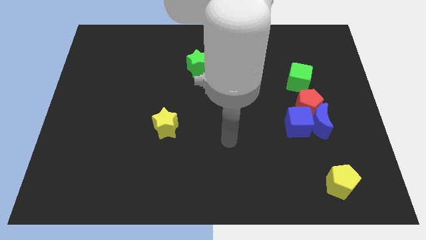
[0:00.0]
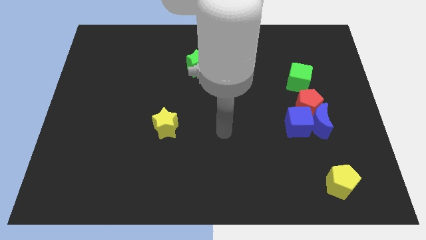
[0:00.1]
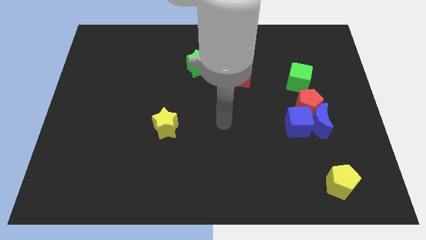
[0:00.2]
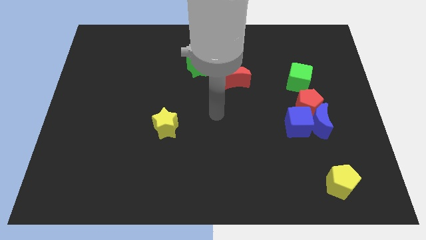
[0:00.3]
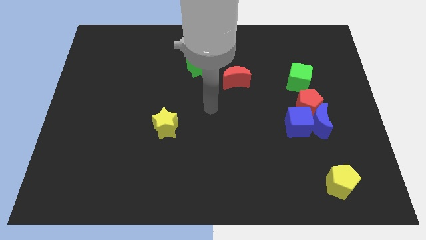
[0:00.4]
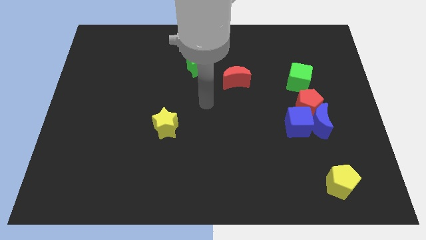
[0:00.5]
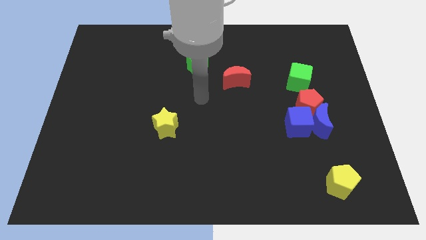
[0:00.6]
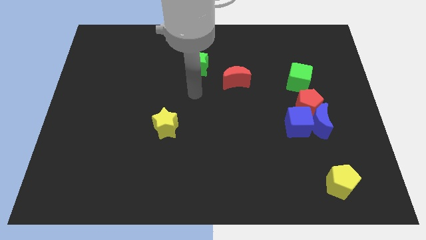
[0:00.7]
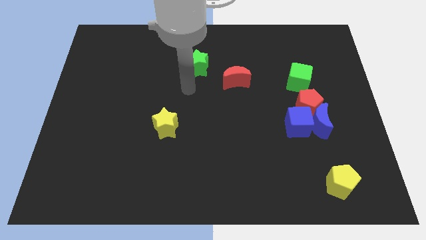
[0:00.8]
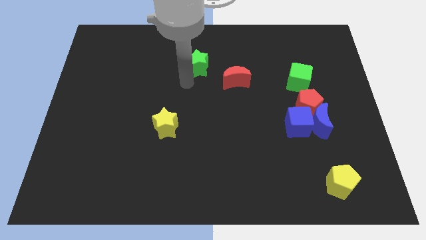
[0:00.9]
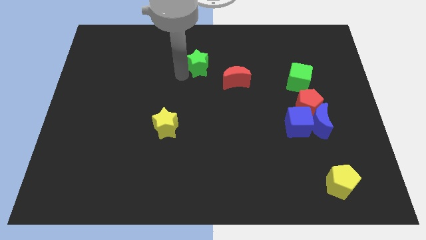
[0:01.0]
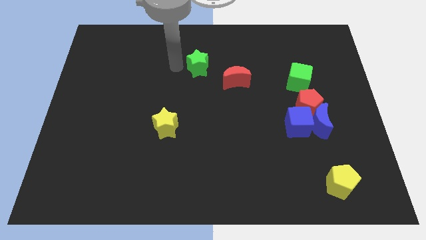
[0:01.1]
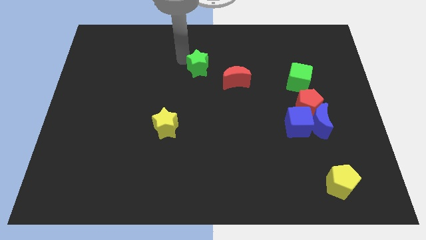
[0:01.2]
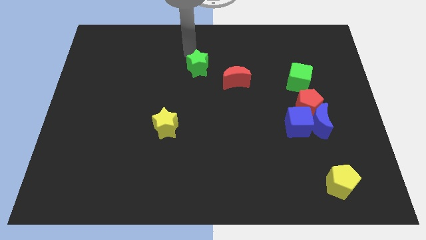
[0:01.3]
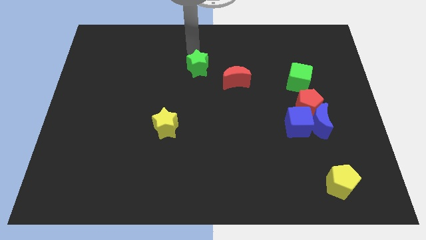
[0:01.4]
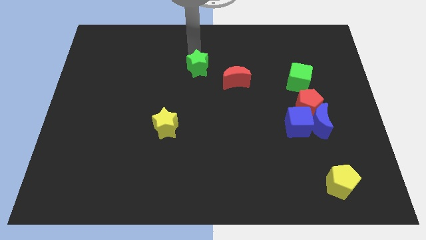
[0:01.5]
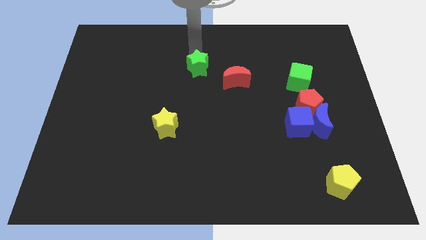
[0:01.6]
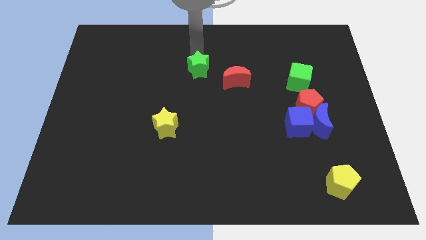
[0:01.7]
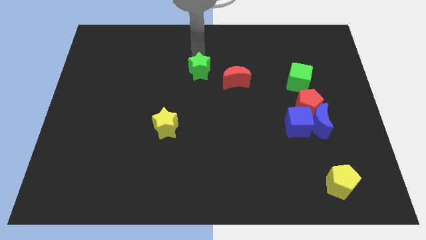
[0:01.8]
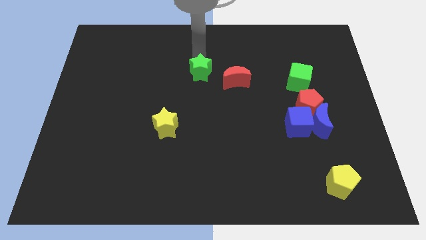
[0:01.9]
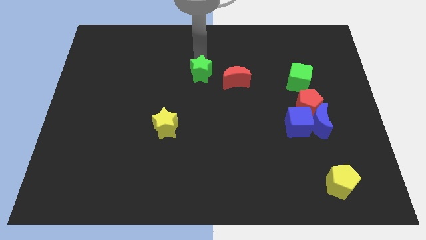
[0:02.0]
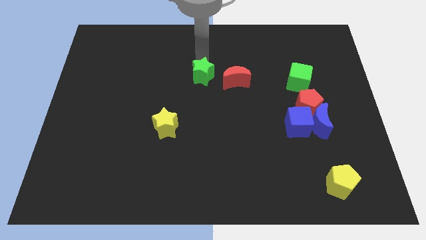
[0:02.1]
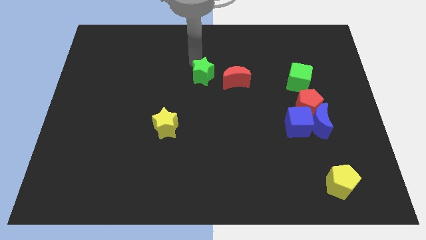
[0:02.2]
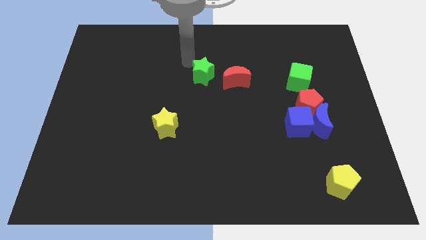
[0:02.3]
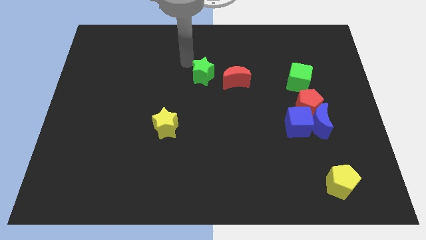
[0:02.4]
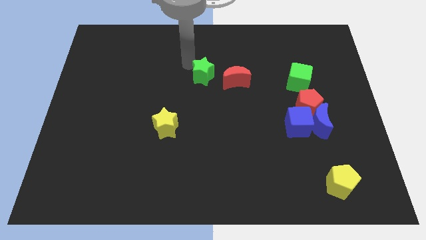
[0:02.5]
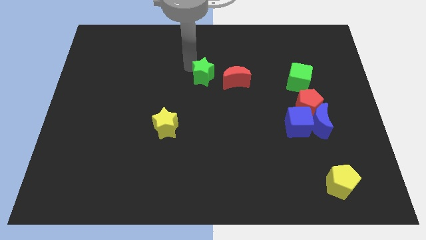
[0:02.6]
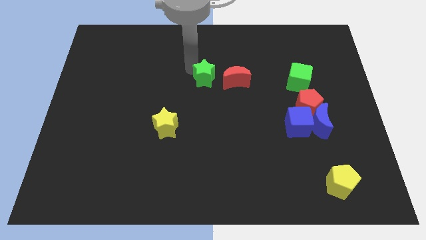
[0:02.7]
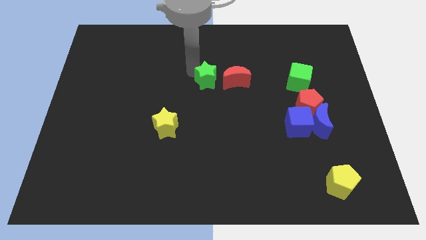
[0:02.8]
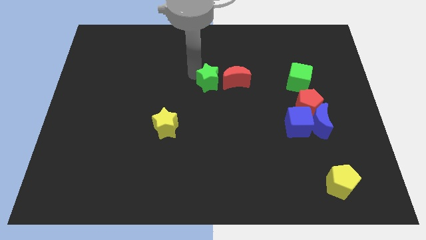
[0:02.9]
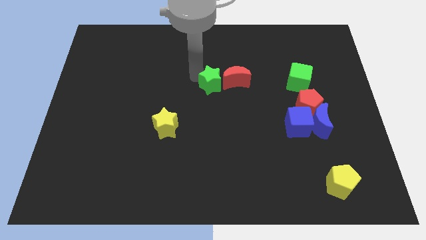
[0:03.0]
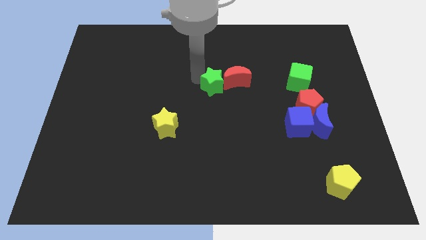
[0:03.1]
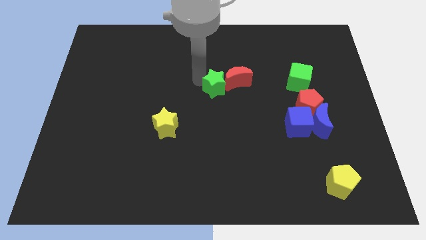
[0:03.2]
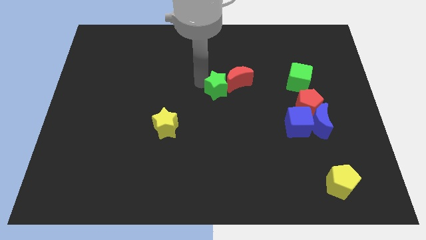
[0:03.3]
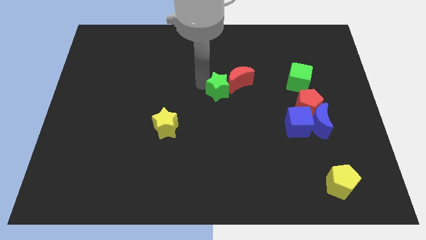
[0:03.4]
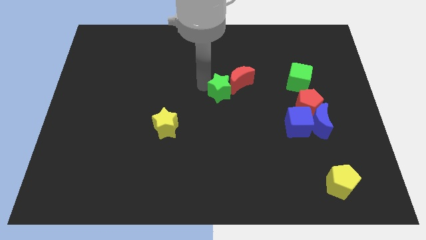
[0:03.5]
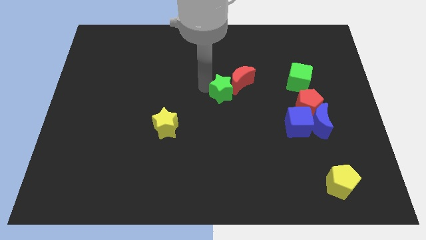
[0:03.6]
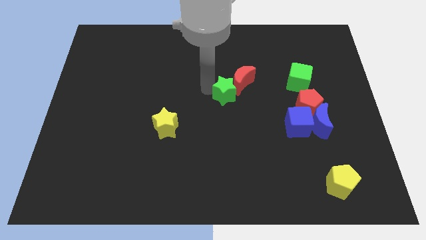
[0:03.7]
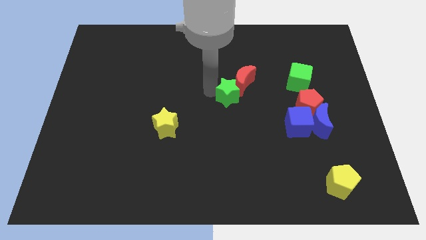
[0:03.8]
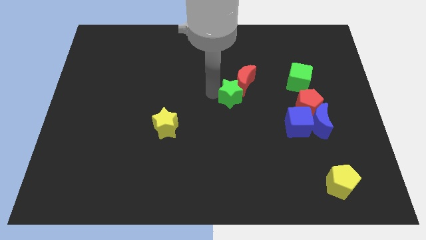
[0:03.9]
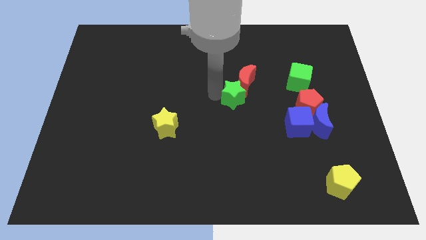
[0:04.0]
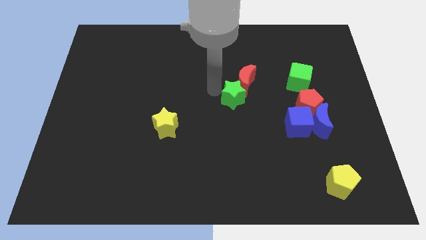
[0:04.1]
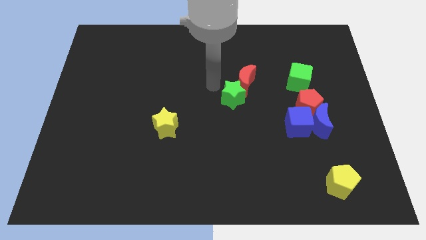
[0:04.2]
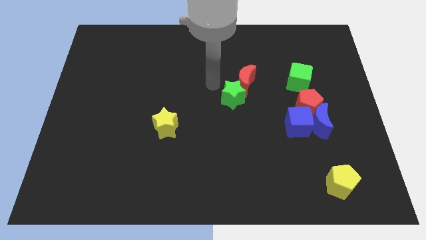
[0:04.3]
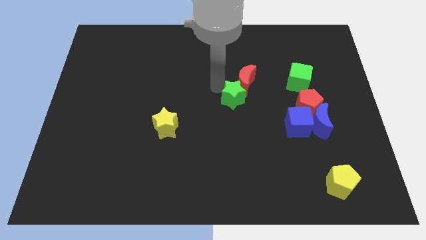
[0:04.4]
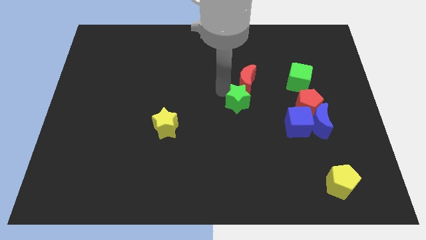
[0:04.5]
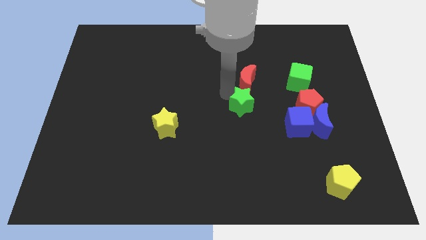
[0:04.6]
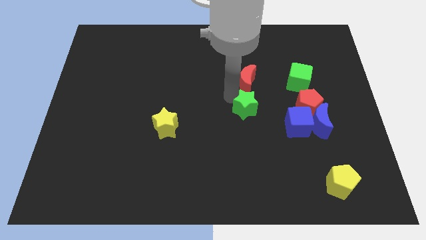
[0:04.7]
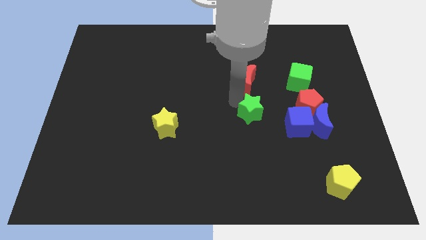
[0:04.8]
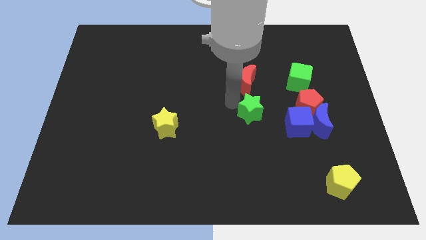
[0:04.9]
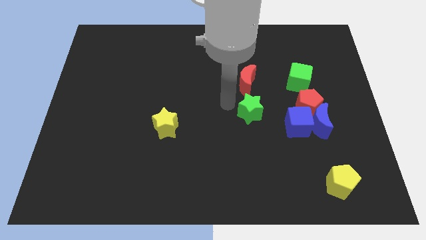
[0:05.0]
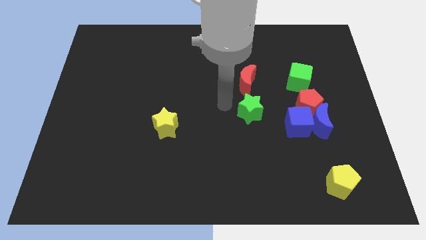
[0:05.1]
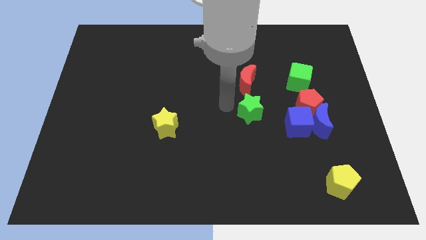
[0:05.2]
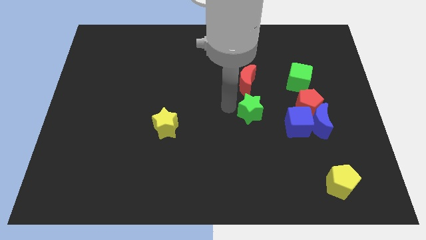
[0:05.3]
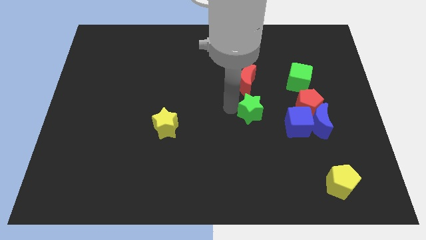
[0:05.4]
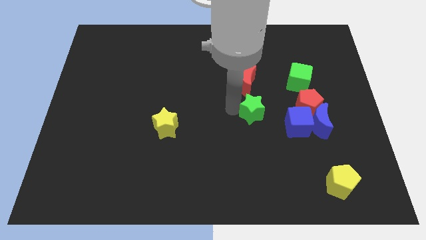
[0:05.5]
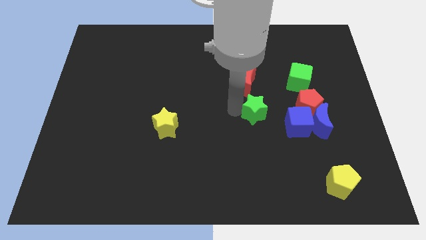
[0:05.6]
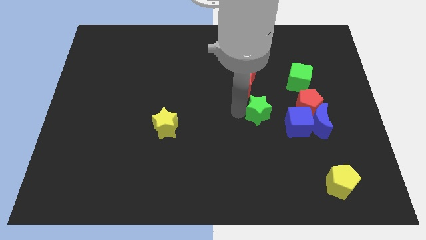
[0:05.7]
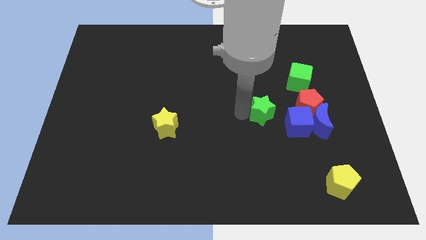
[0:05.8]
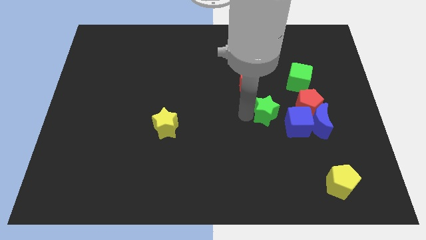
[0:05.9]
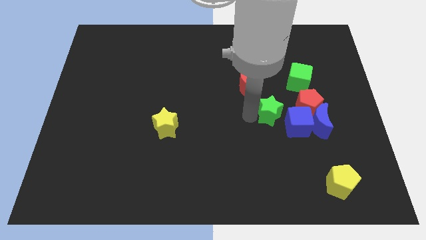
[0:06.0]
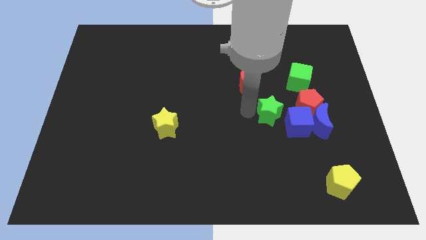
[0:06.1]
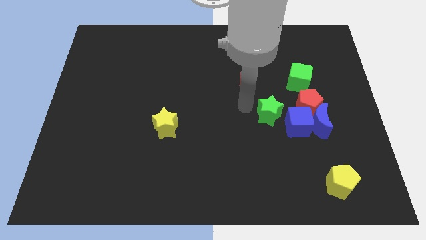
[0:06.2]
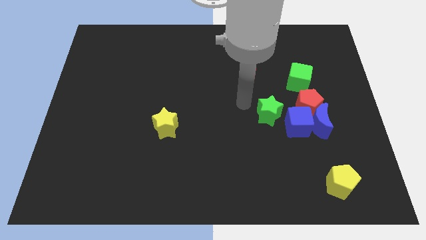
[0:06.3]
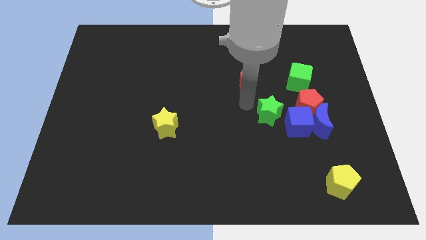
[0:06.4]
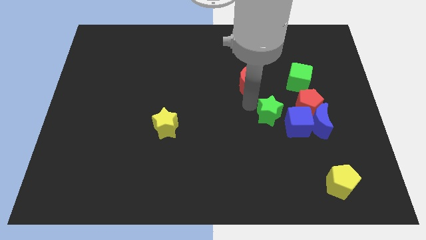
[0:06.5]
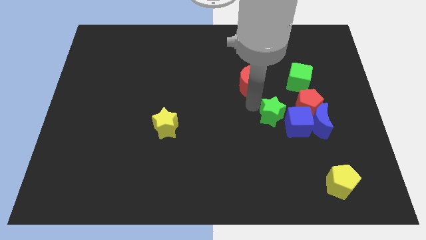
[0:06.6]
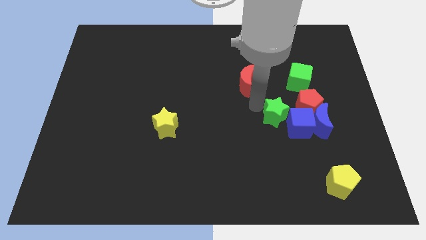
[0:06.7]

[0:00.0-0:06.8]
push the green star close to the blue cube

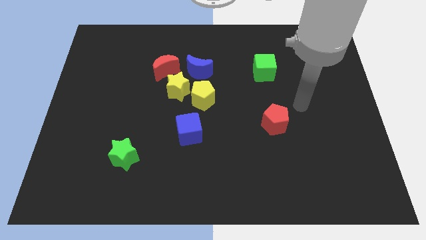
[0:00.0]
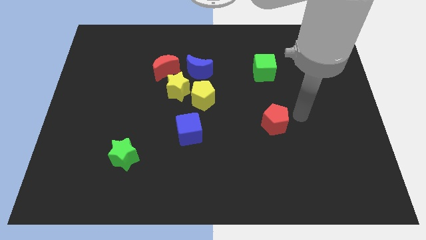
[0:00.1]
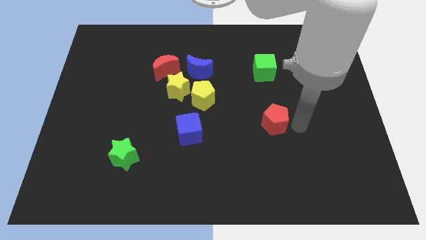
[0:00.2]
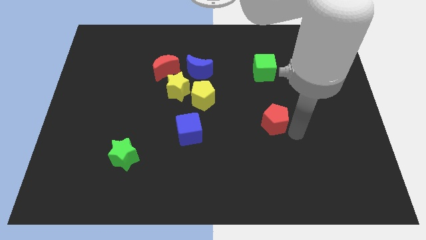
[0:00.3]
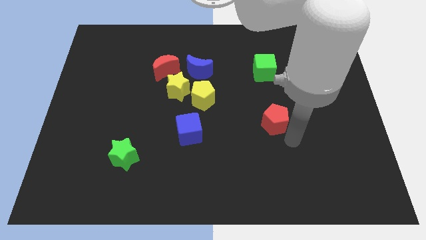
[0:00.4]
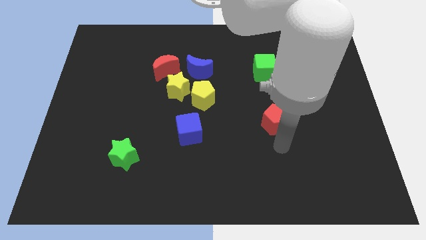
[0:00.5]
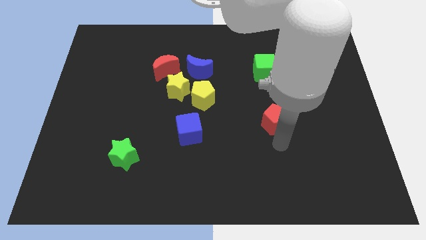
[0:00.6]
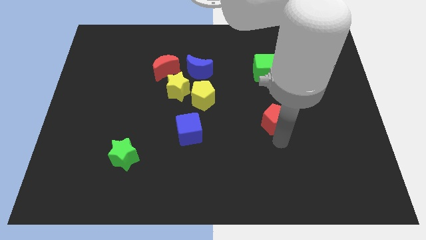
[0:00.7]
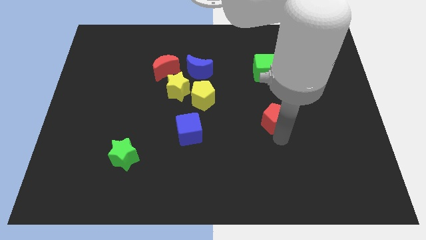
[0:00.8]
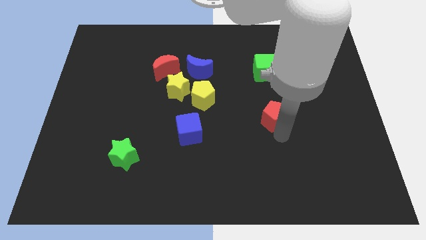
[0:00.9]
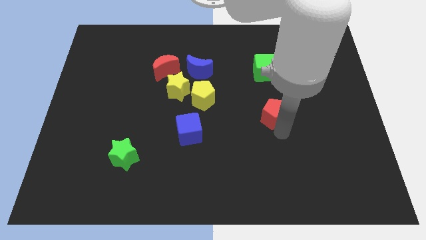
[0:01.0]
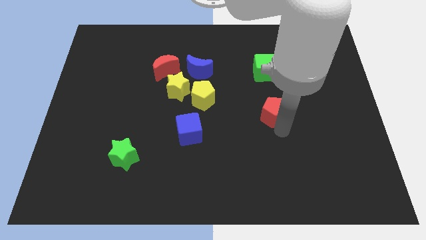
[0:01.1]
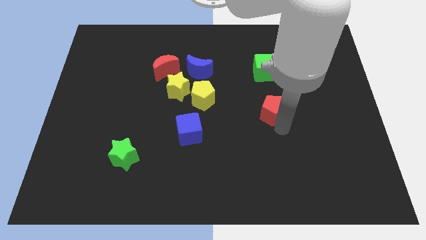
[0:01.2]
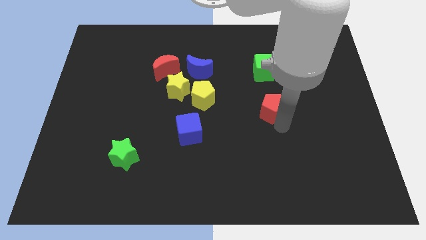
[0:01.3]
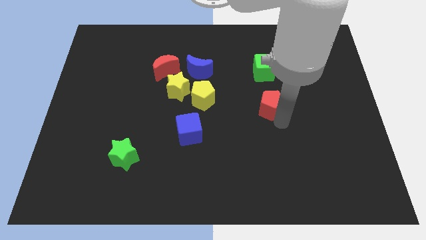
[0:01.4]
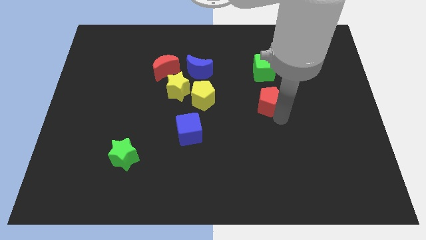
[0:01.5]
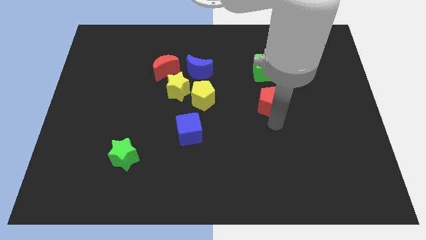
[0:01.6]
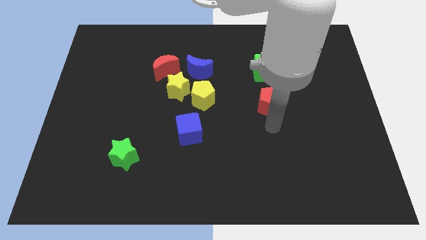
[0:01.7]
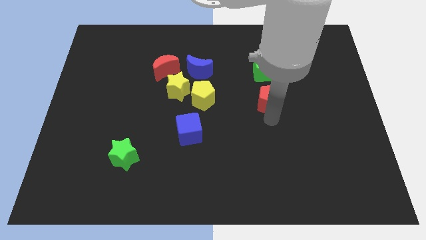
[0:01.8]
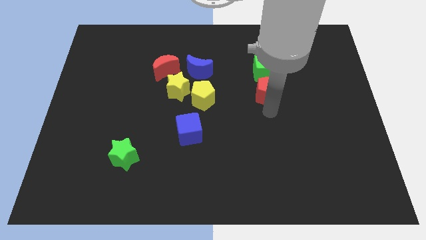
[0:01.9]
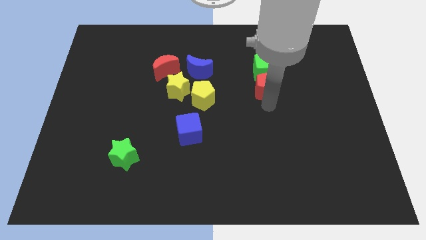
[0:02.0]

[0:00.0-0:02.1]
push the red pentagon towards the green cube
